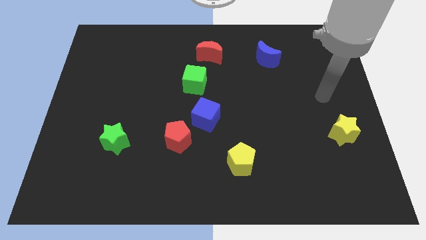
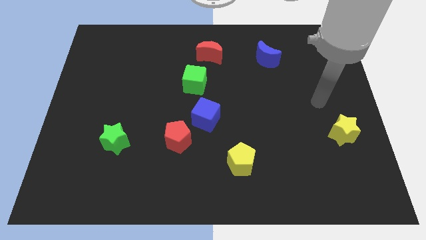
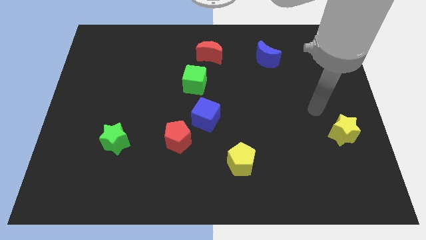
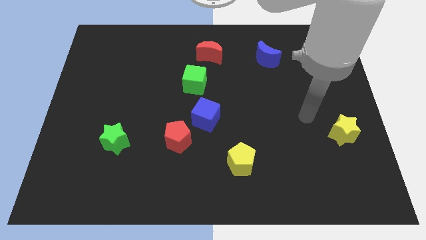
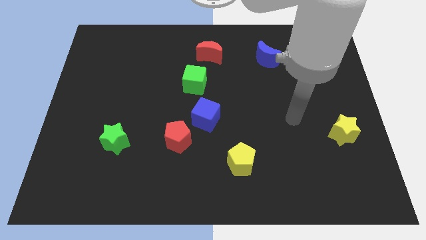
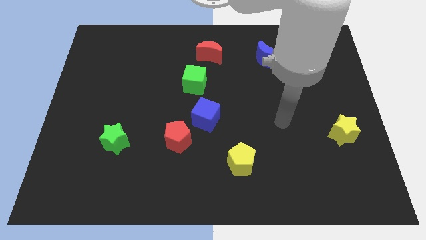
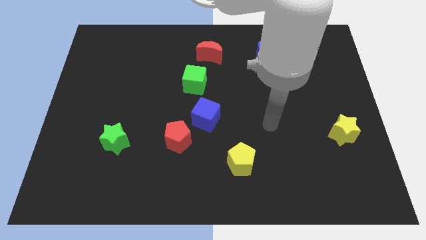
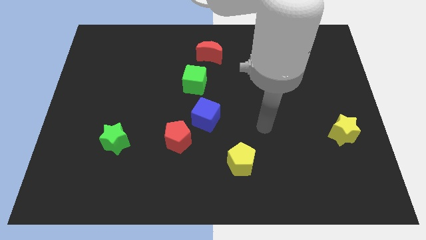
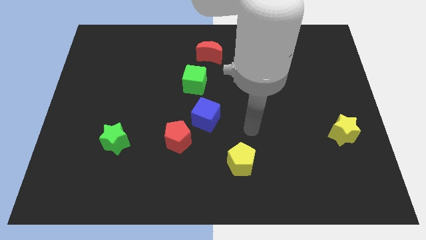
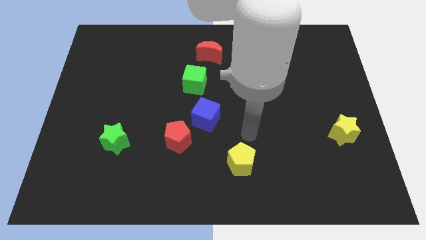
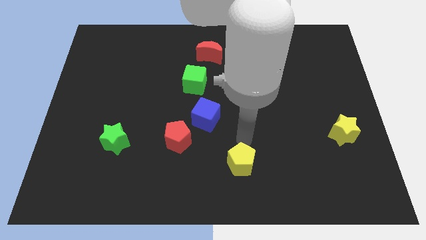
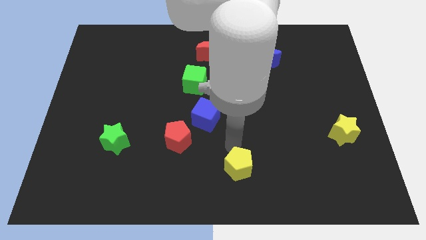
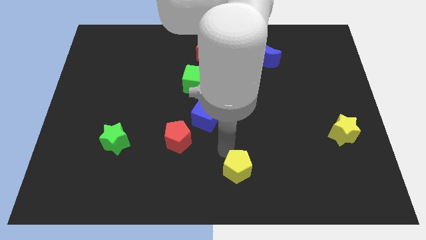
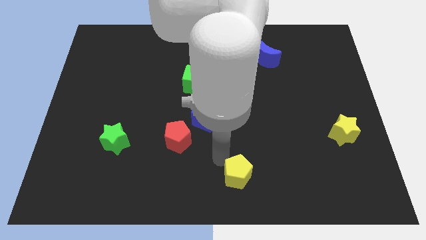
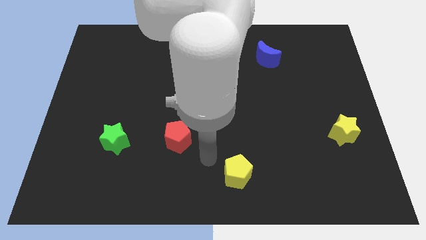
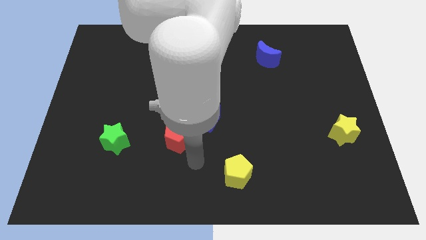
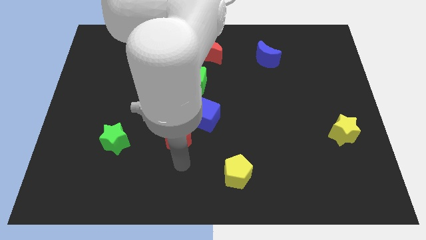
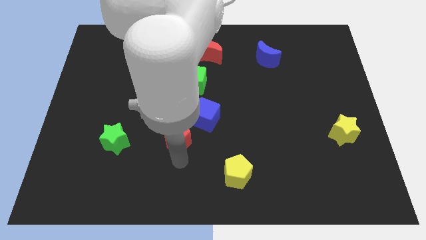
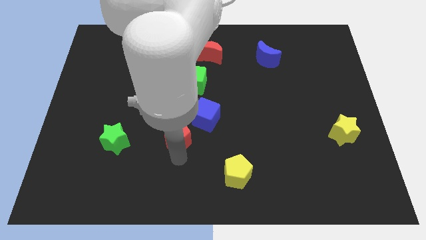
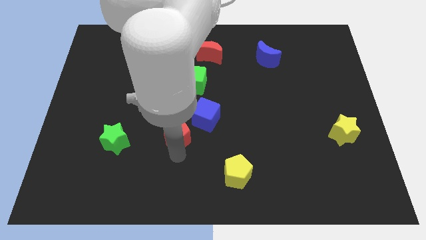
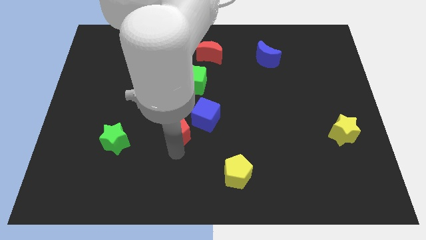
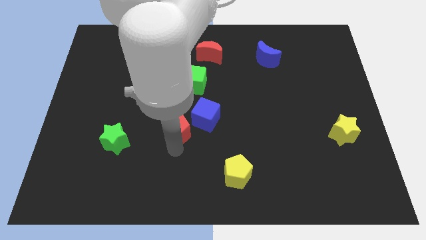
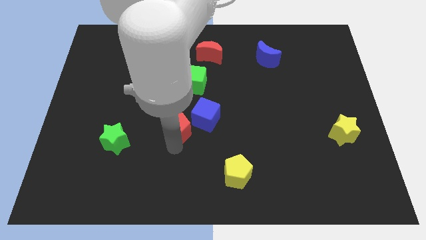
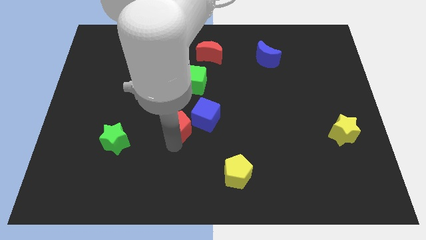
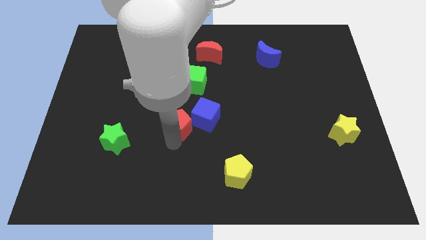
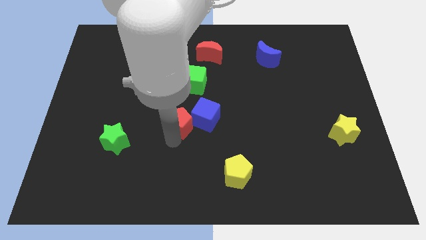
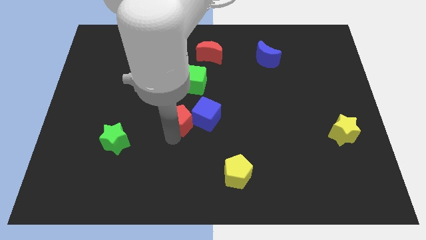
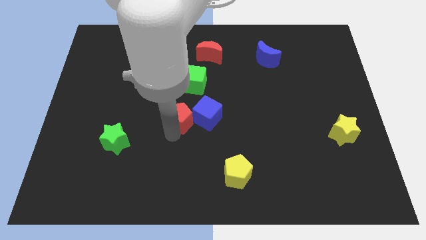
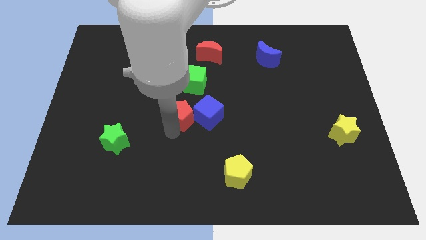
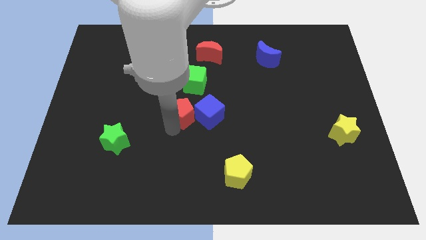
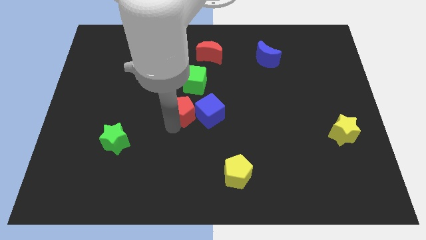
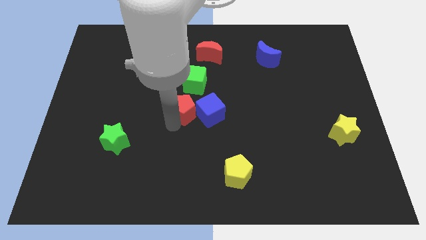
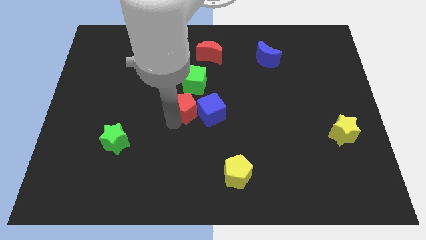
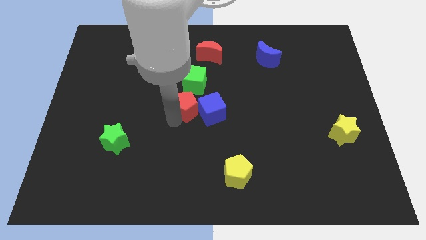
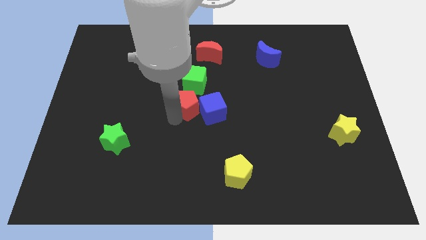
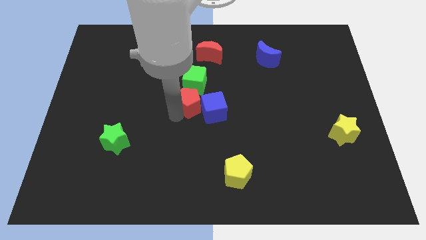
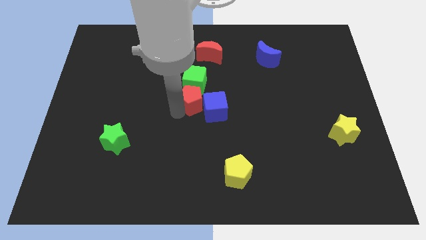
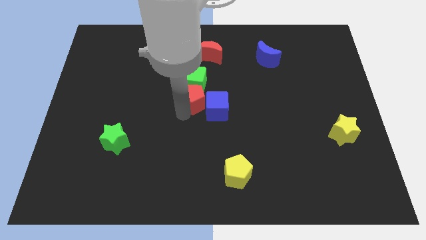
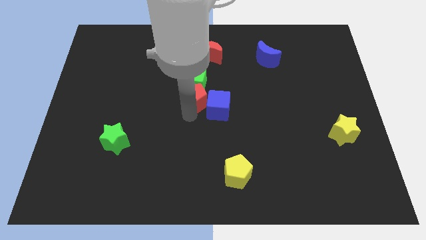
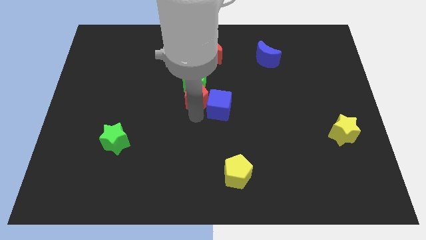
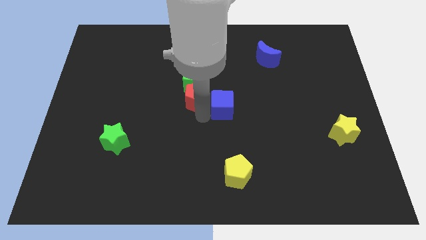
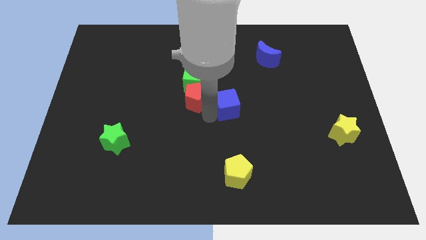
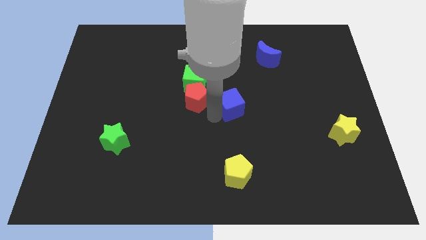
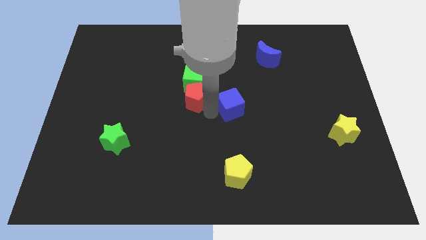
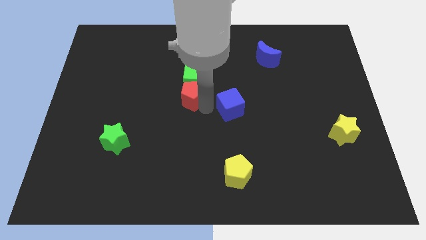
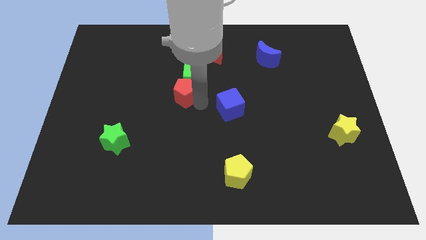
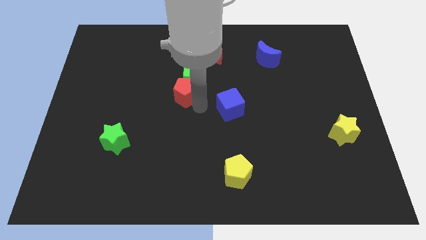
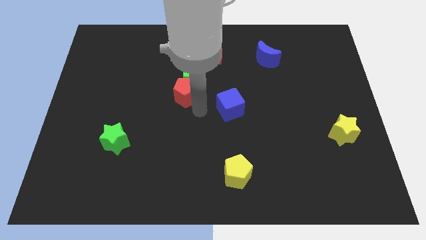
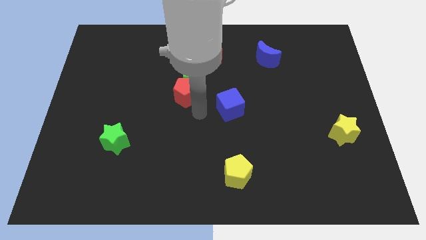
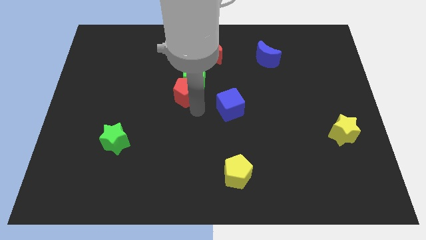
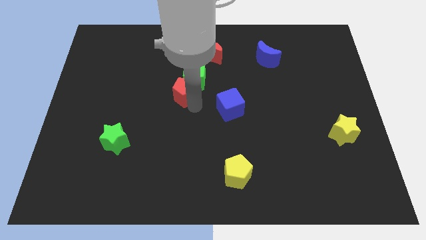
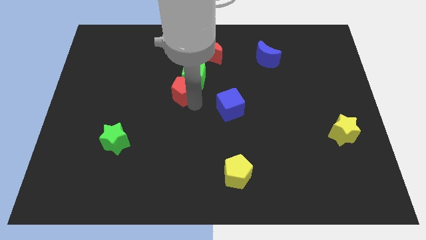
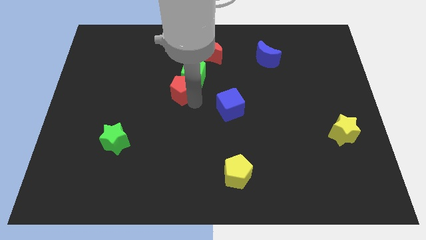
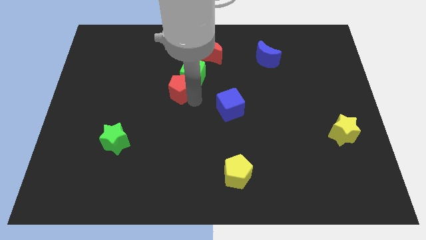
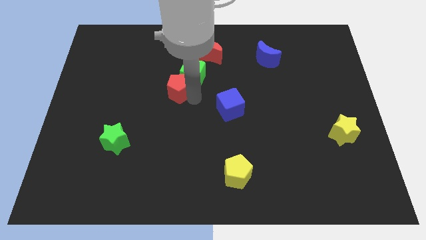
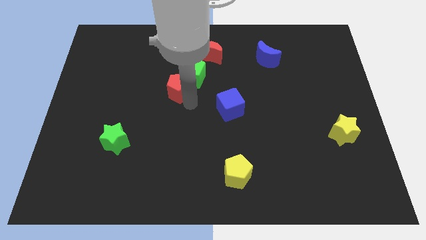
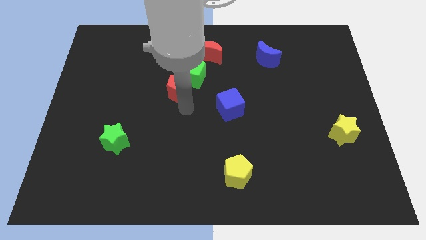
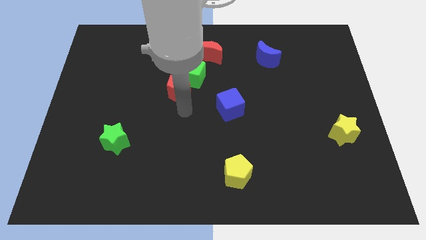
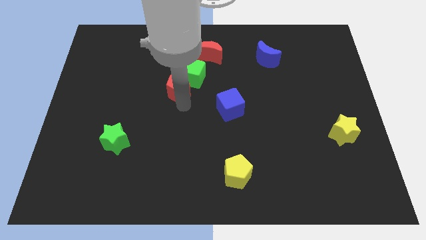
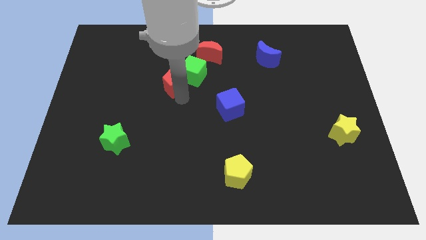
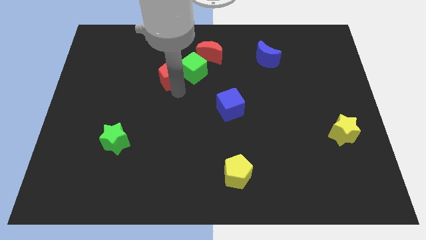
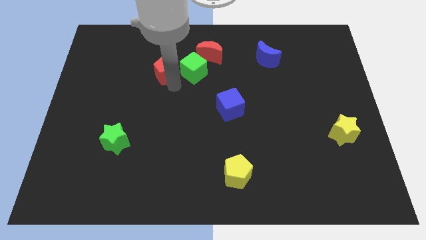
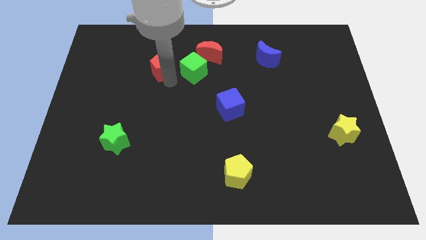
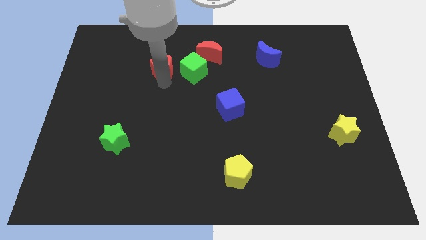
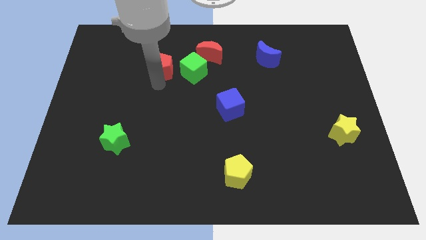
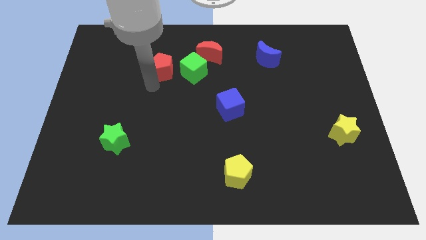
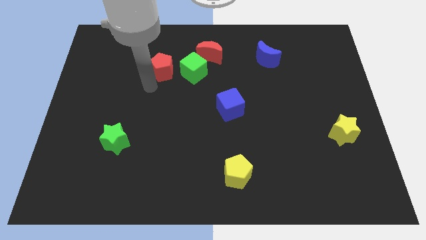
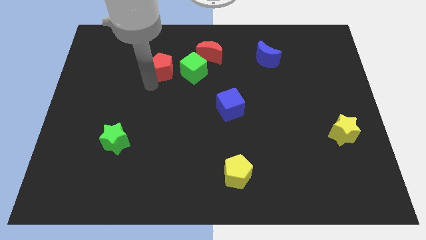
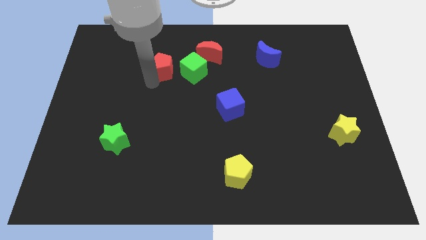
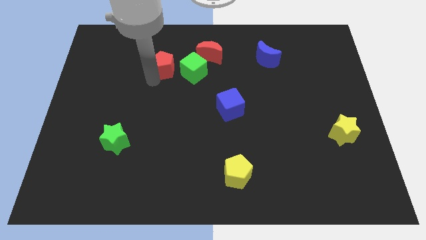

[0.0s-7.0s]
move the red pentagon diagonally up and to the left of the green cube
